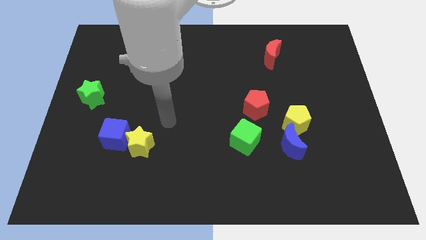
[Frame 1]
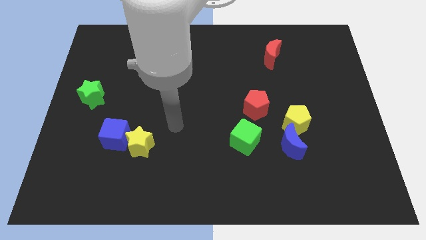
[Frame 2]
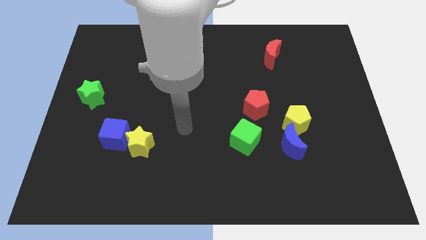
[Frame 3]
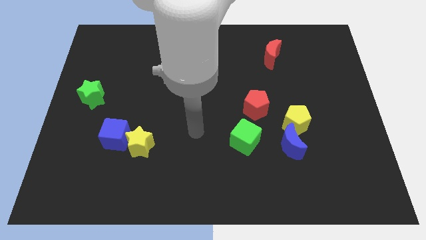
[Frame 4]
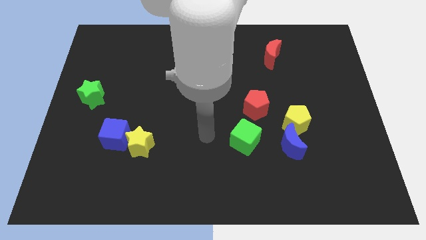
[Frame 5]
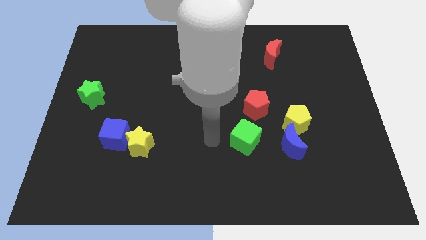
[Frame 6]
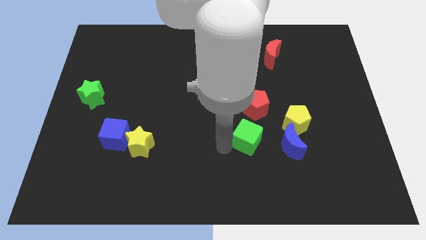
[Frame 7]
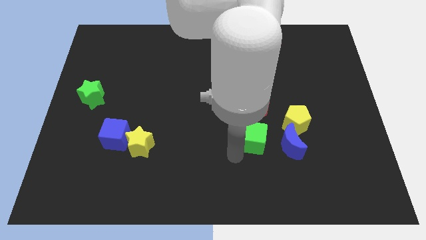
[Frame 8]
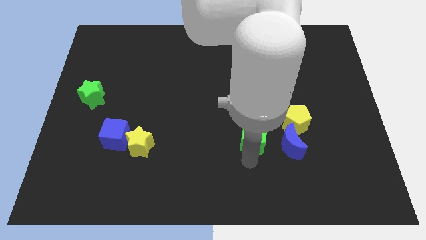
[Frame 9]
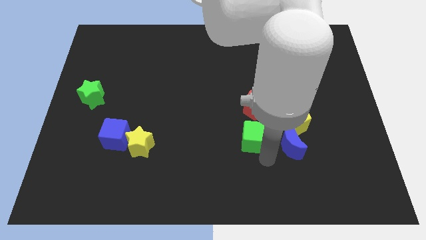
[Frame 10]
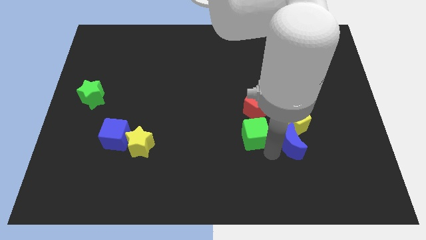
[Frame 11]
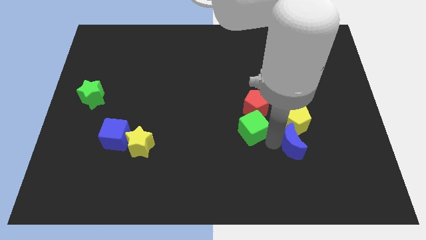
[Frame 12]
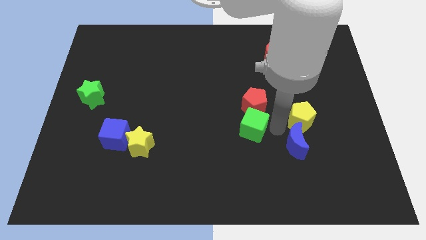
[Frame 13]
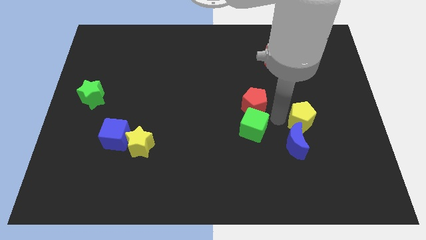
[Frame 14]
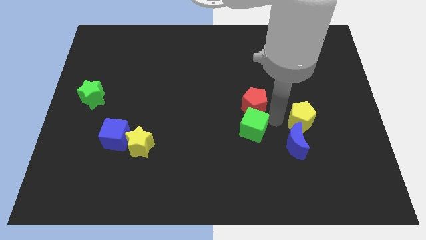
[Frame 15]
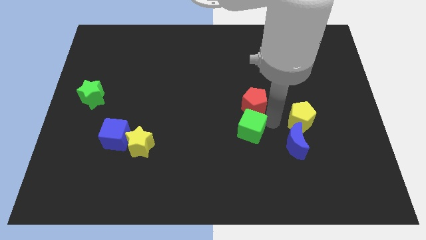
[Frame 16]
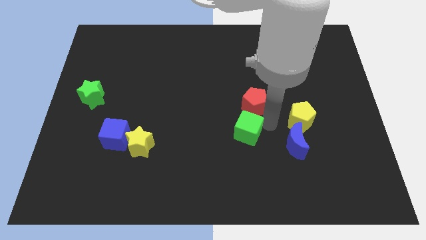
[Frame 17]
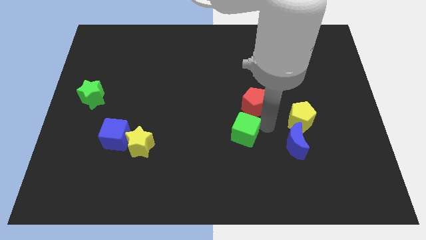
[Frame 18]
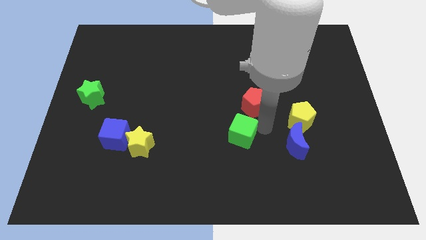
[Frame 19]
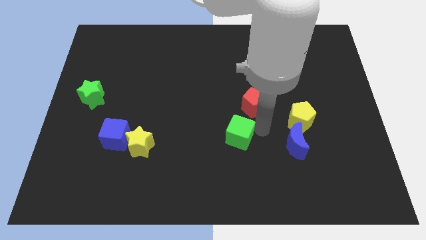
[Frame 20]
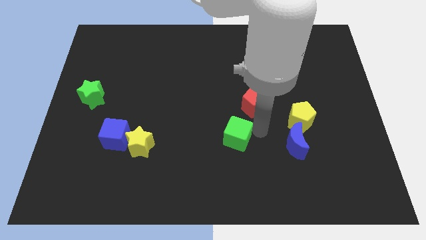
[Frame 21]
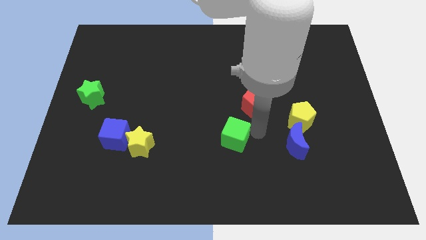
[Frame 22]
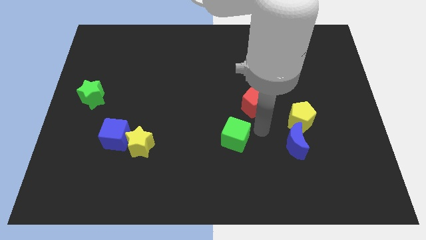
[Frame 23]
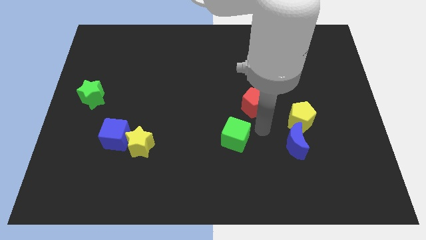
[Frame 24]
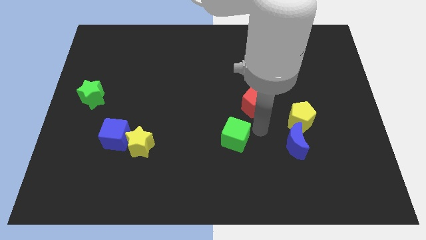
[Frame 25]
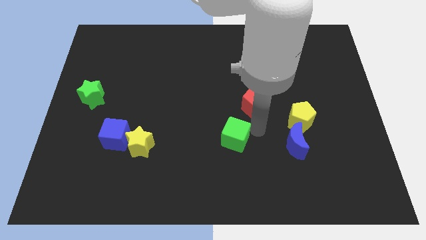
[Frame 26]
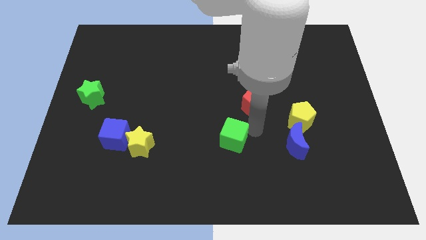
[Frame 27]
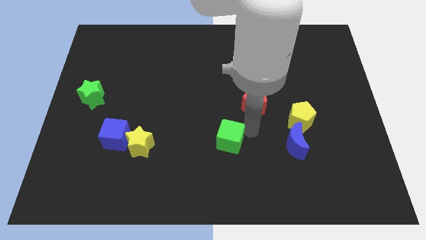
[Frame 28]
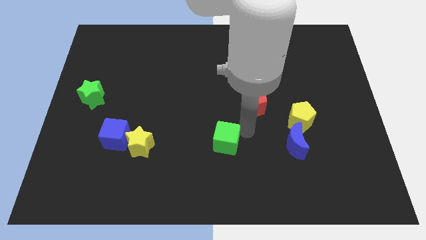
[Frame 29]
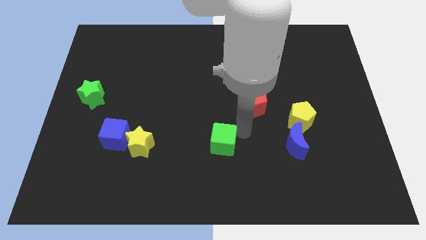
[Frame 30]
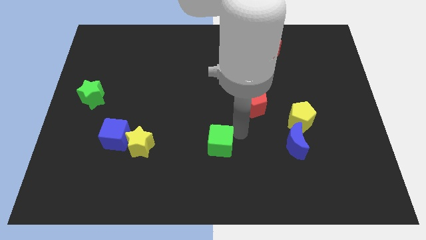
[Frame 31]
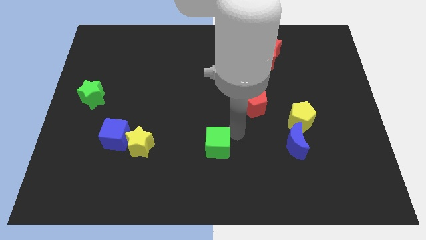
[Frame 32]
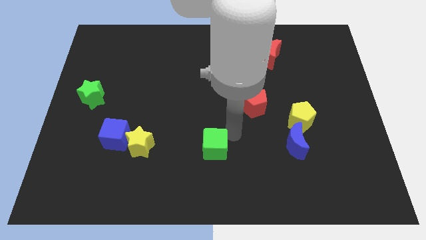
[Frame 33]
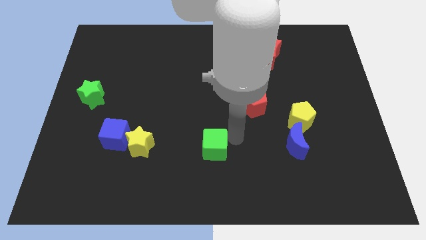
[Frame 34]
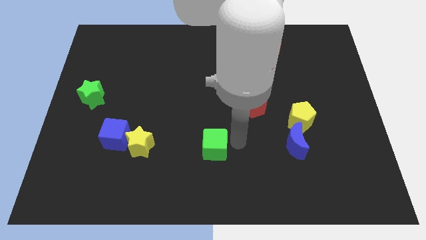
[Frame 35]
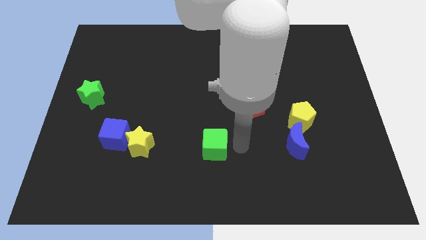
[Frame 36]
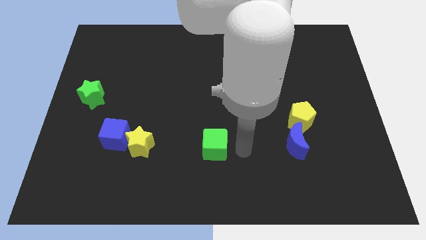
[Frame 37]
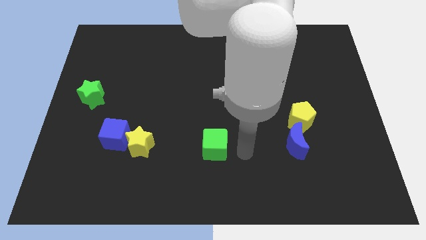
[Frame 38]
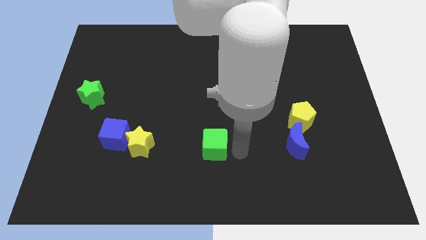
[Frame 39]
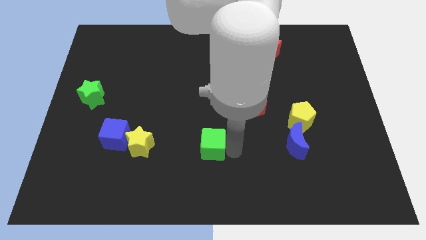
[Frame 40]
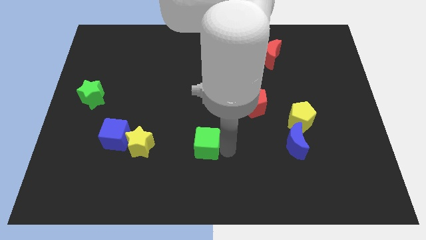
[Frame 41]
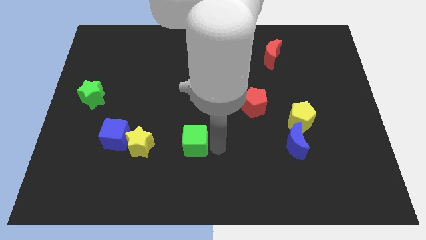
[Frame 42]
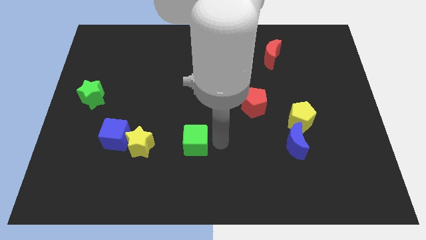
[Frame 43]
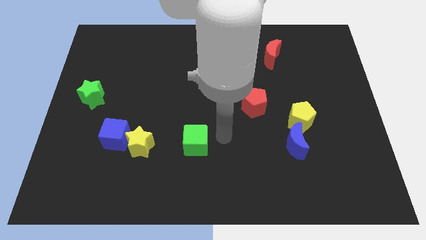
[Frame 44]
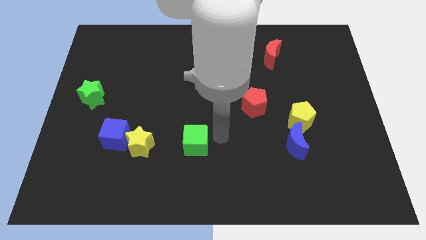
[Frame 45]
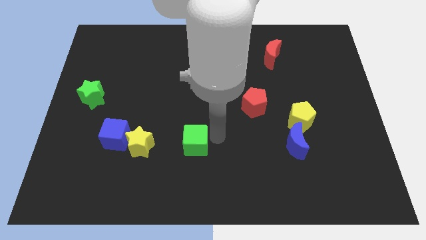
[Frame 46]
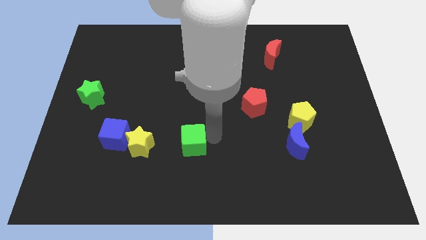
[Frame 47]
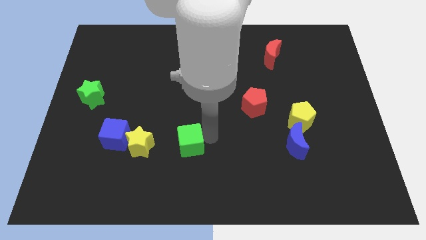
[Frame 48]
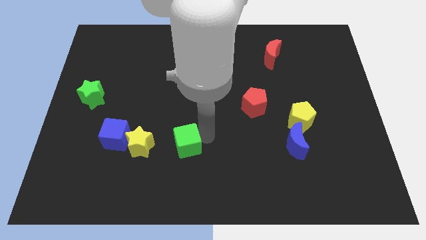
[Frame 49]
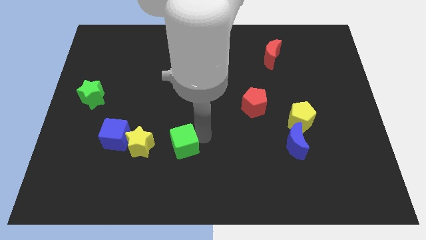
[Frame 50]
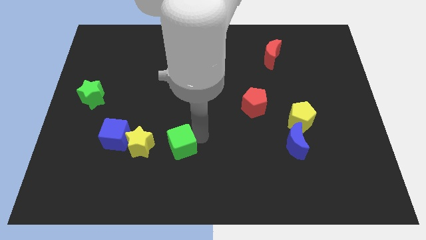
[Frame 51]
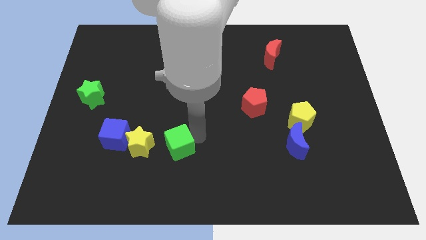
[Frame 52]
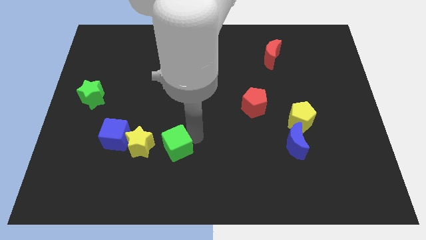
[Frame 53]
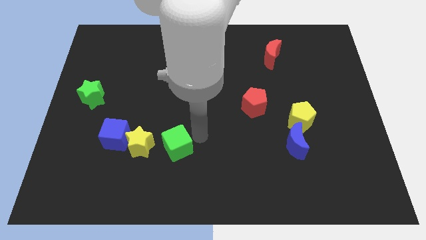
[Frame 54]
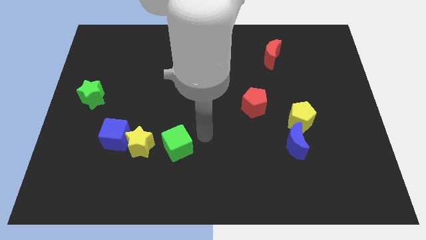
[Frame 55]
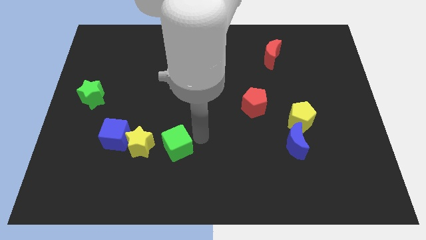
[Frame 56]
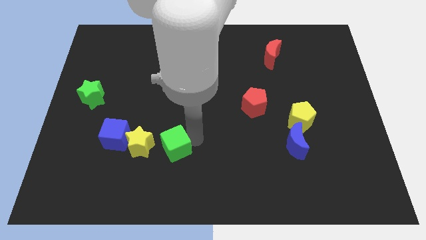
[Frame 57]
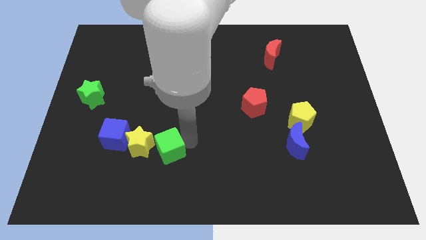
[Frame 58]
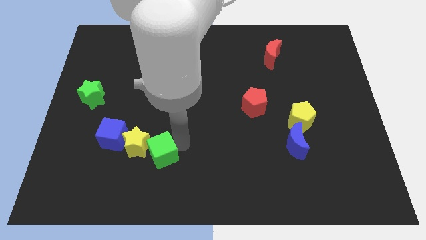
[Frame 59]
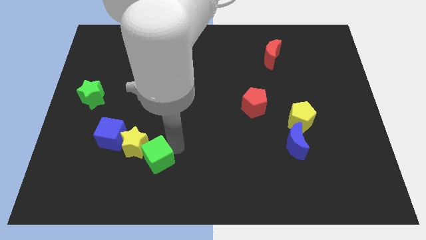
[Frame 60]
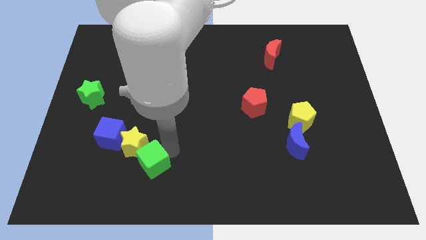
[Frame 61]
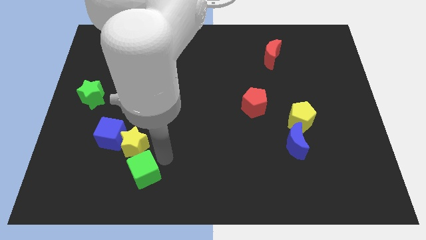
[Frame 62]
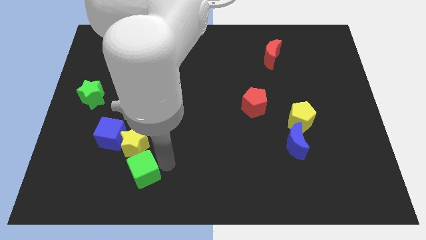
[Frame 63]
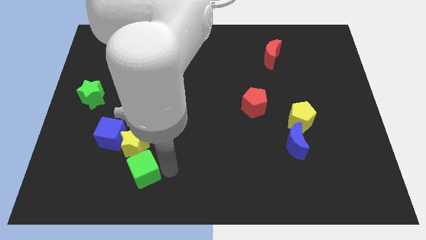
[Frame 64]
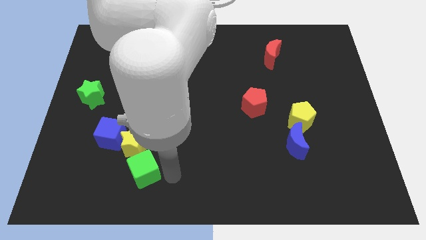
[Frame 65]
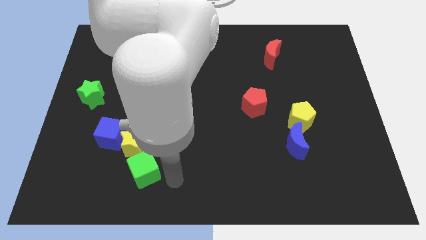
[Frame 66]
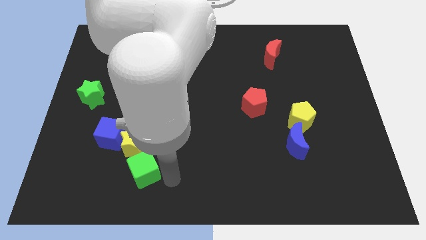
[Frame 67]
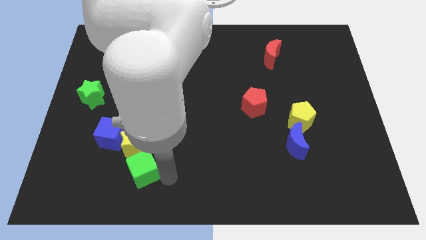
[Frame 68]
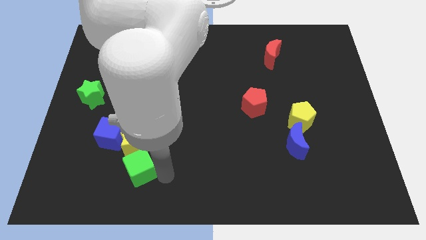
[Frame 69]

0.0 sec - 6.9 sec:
slide the green cube left

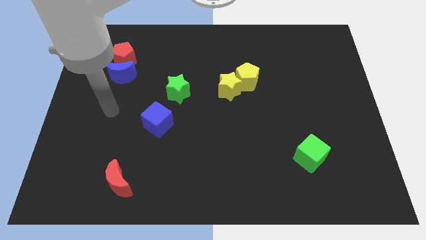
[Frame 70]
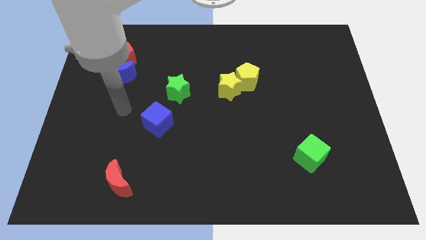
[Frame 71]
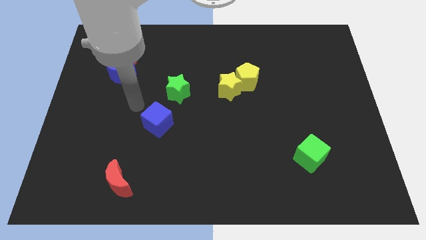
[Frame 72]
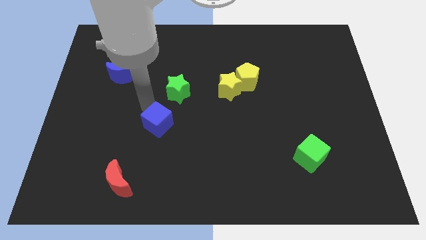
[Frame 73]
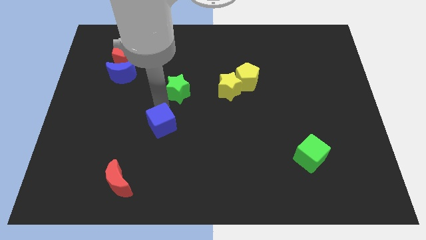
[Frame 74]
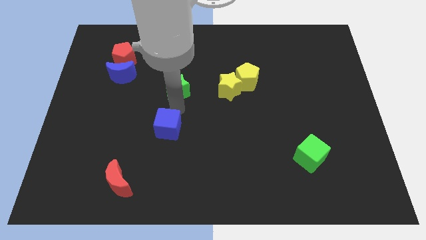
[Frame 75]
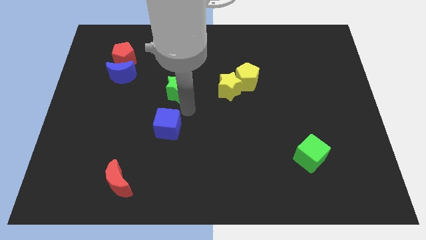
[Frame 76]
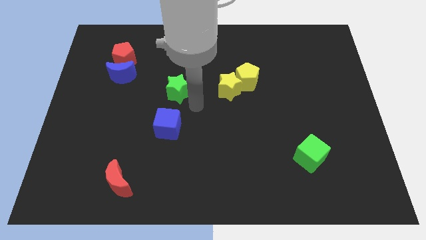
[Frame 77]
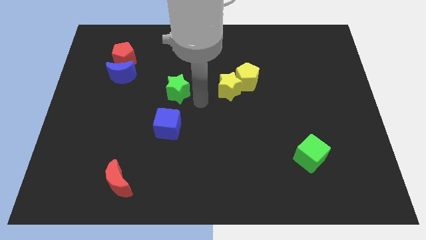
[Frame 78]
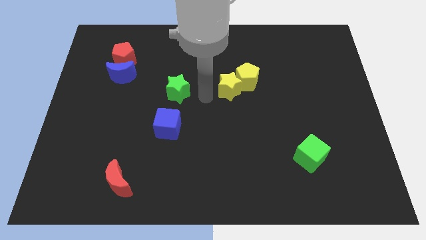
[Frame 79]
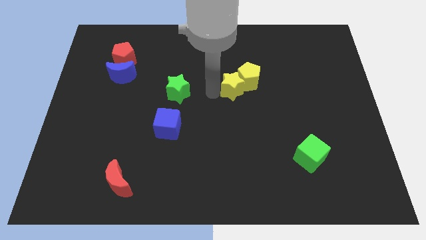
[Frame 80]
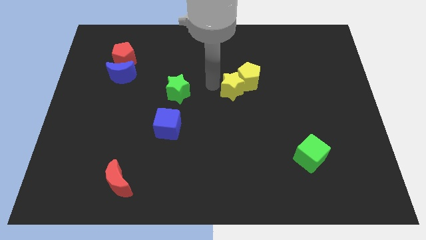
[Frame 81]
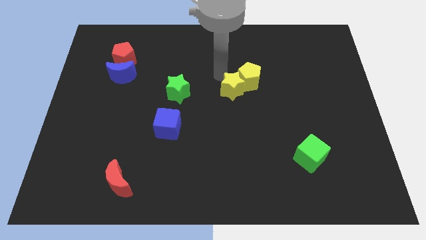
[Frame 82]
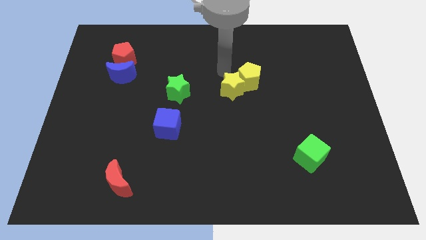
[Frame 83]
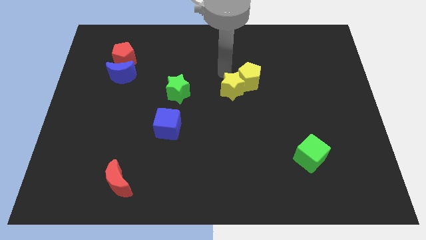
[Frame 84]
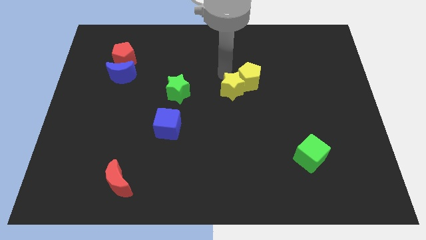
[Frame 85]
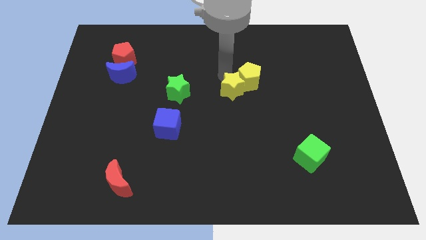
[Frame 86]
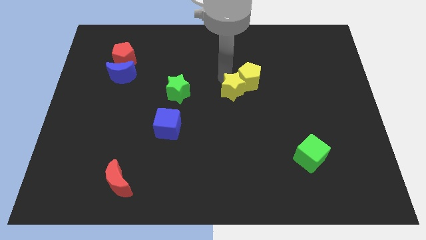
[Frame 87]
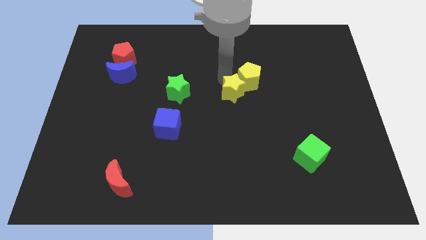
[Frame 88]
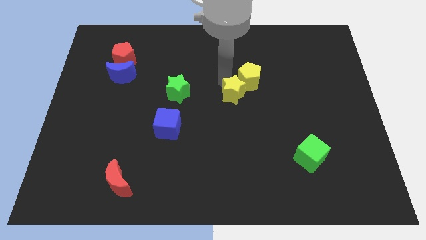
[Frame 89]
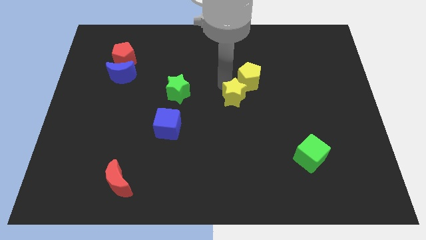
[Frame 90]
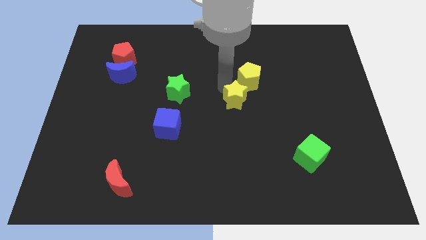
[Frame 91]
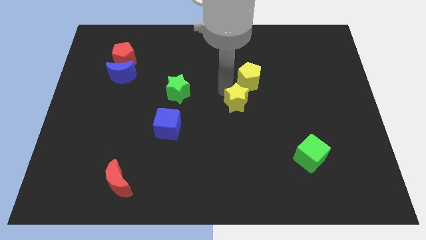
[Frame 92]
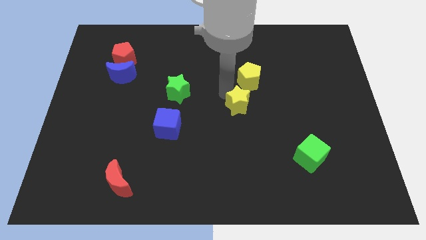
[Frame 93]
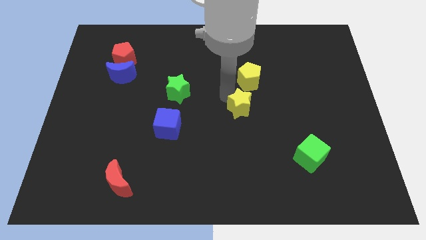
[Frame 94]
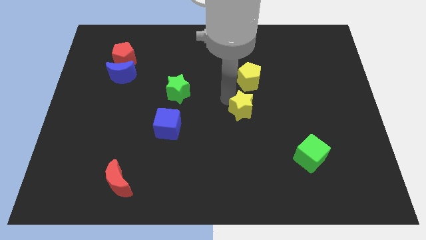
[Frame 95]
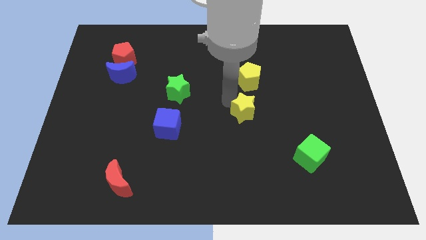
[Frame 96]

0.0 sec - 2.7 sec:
push the yellow star a little bit downwards and then to the right
